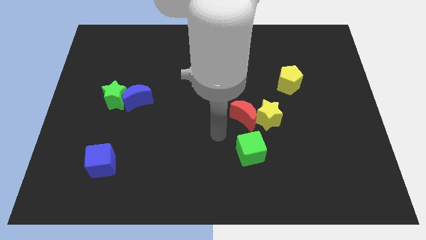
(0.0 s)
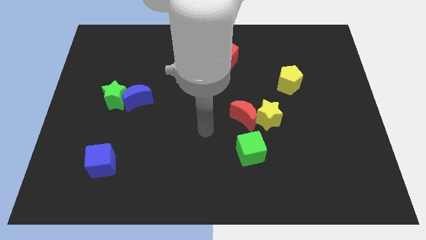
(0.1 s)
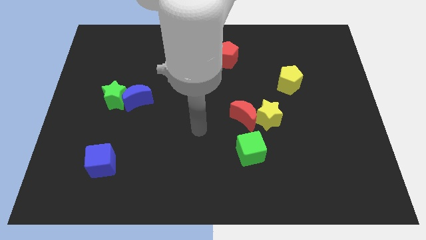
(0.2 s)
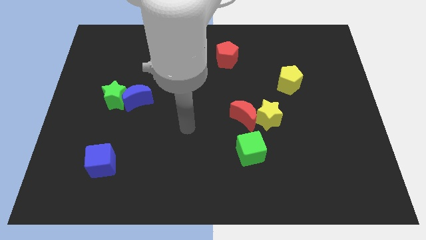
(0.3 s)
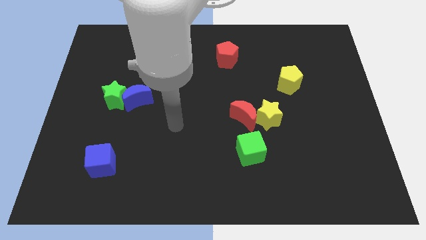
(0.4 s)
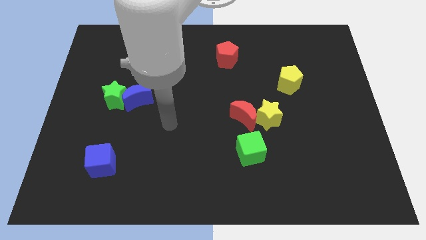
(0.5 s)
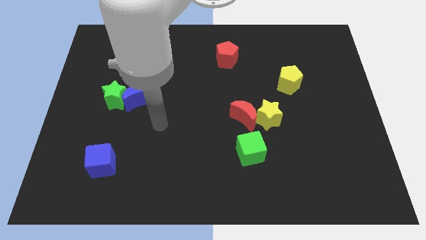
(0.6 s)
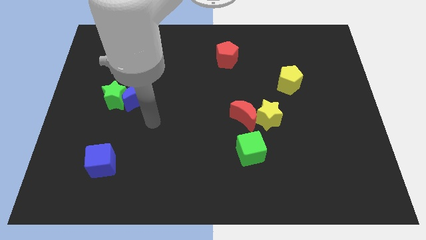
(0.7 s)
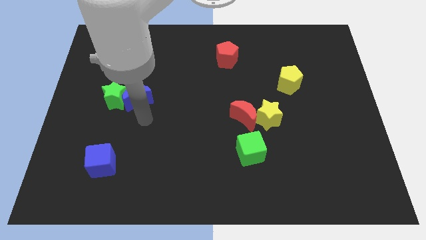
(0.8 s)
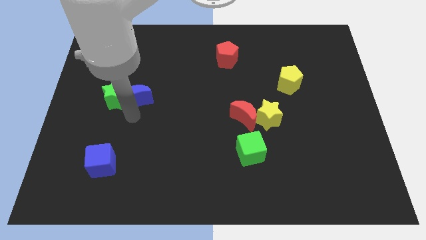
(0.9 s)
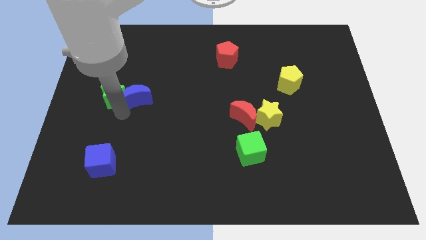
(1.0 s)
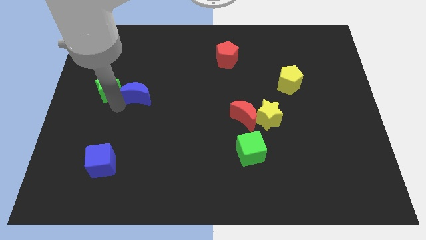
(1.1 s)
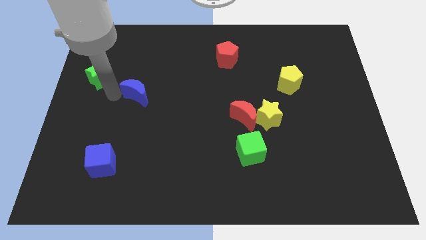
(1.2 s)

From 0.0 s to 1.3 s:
separate the blue moon from the green star

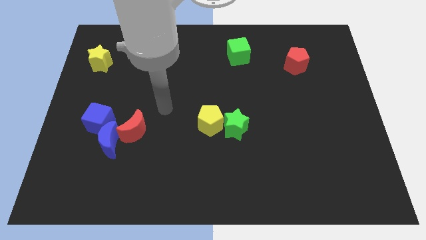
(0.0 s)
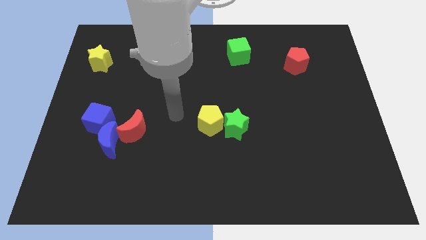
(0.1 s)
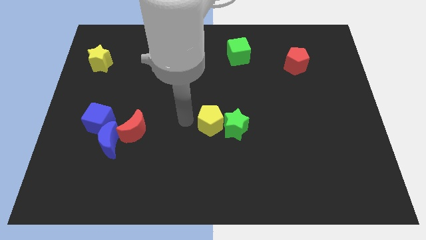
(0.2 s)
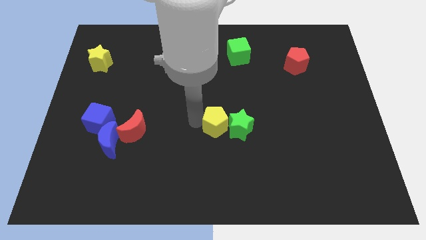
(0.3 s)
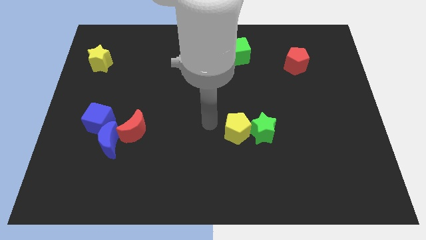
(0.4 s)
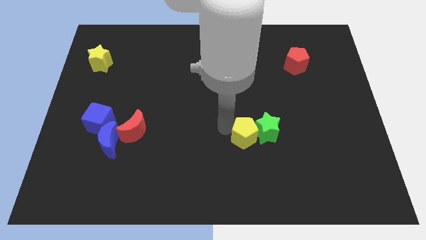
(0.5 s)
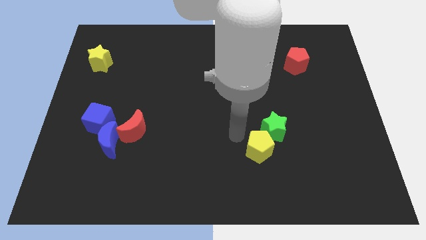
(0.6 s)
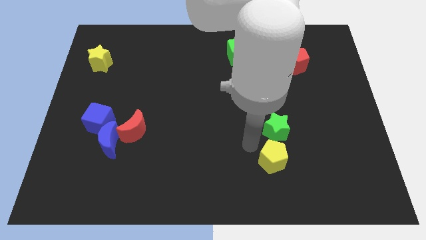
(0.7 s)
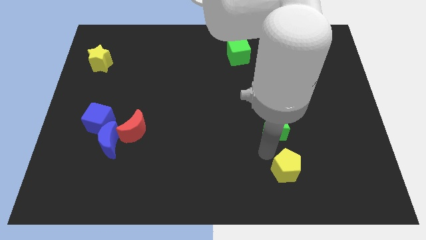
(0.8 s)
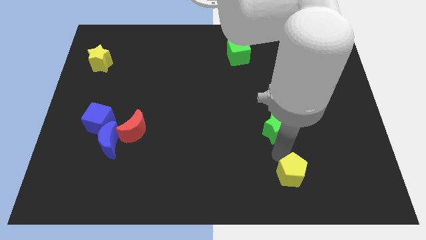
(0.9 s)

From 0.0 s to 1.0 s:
move the green star away from the yellow pentagon

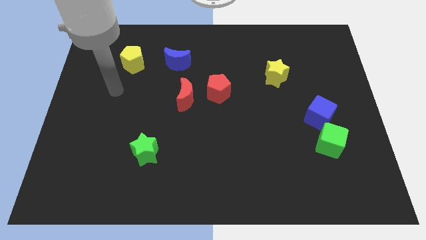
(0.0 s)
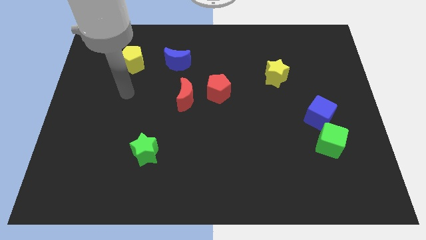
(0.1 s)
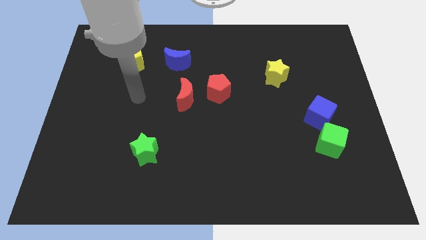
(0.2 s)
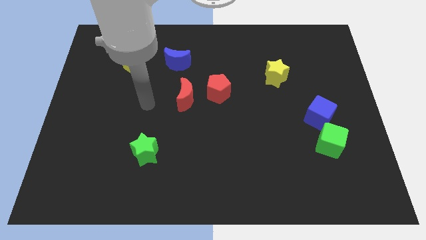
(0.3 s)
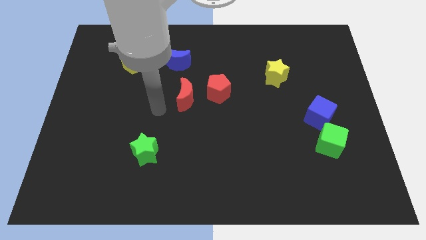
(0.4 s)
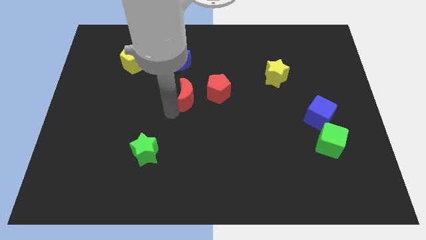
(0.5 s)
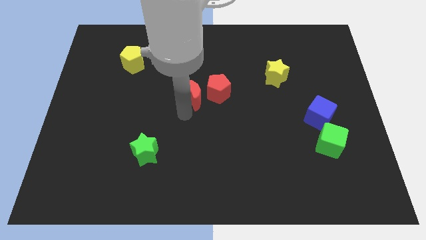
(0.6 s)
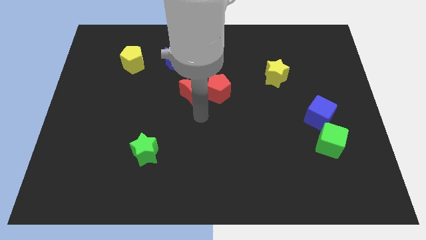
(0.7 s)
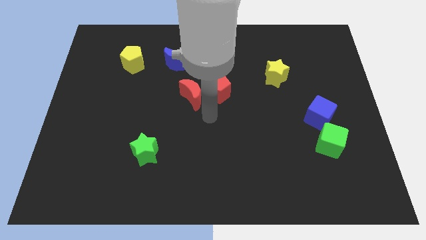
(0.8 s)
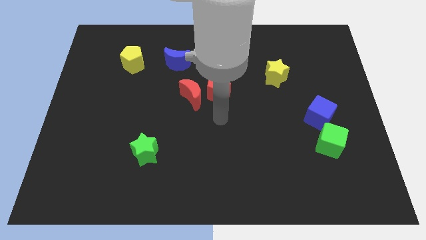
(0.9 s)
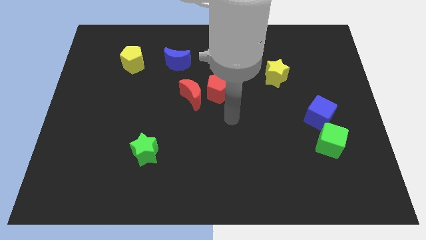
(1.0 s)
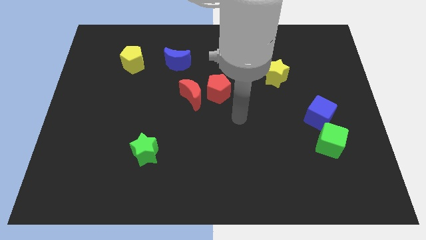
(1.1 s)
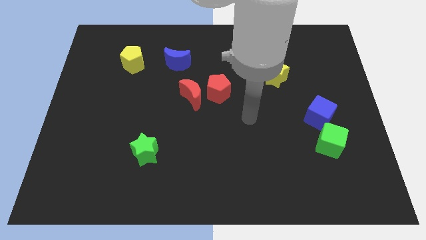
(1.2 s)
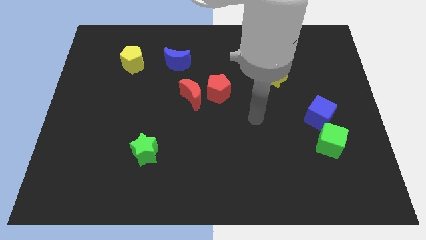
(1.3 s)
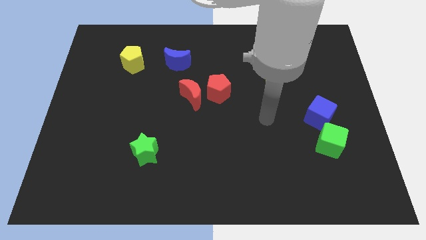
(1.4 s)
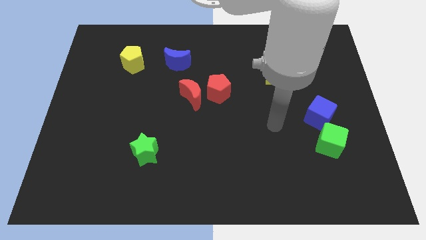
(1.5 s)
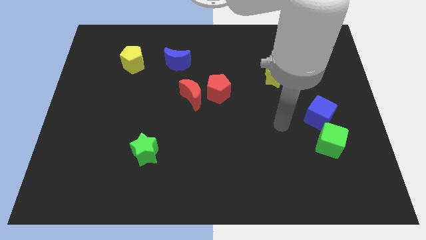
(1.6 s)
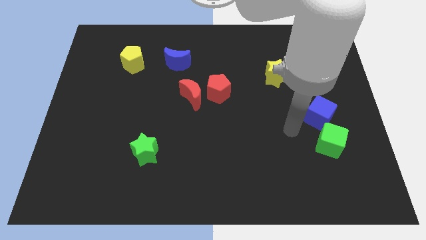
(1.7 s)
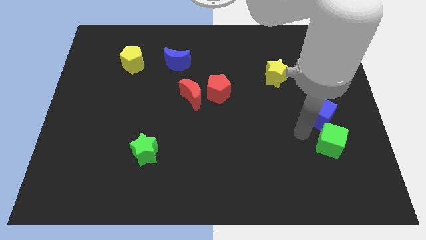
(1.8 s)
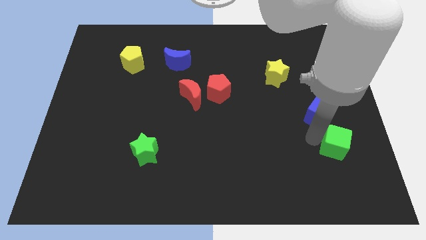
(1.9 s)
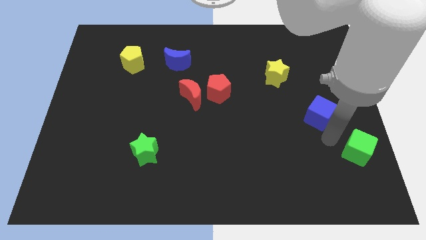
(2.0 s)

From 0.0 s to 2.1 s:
separate the blue cube from the green cube

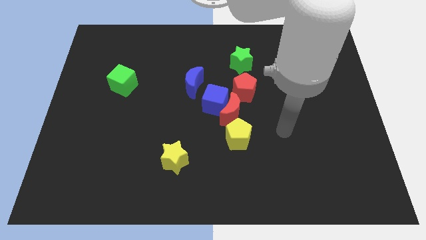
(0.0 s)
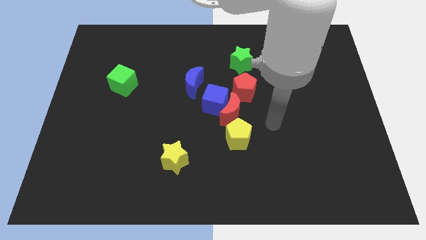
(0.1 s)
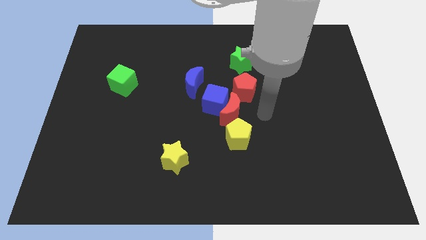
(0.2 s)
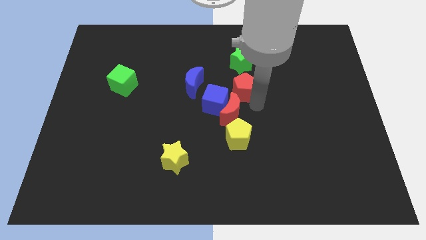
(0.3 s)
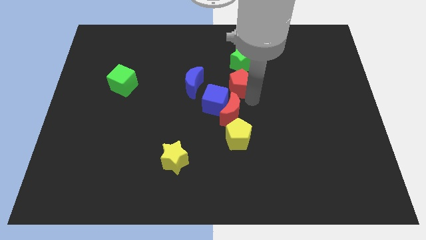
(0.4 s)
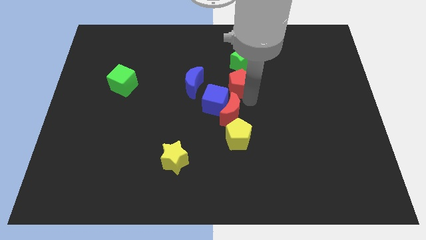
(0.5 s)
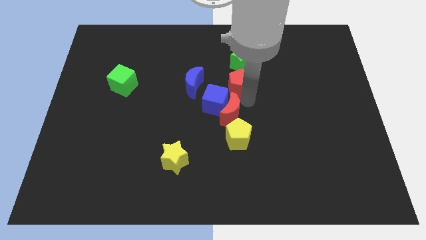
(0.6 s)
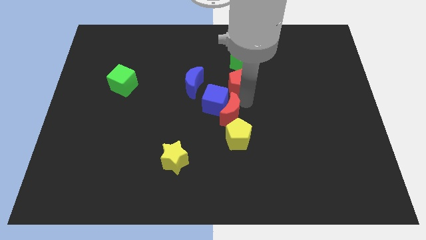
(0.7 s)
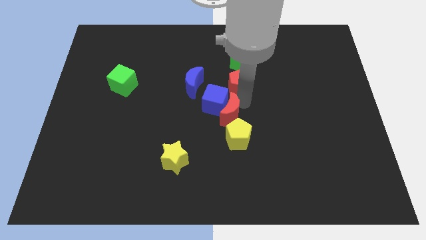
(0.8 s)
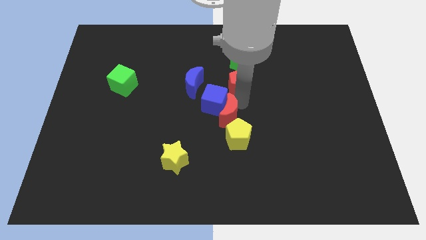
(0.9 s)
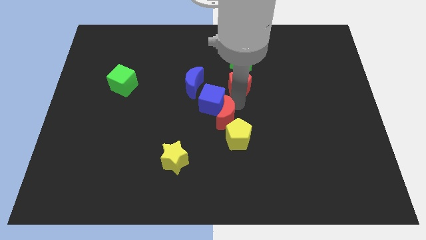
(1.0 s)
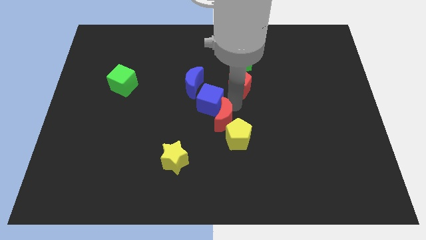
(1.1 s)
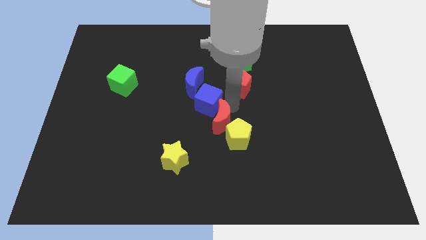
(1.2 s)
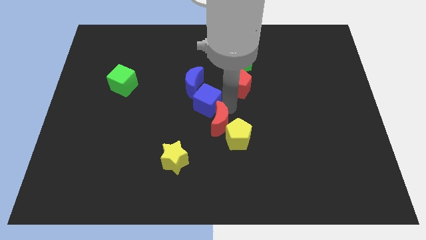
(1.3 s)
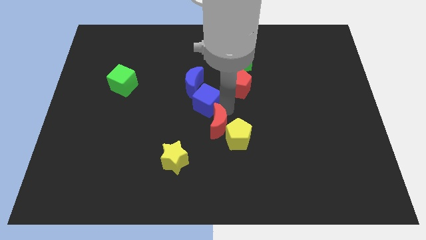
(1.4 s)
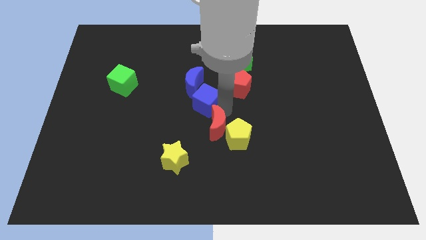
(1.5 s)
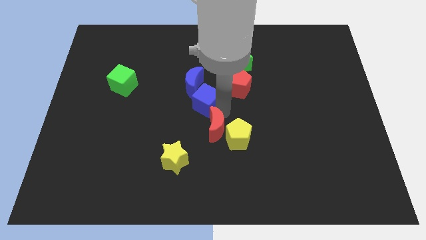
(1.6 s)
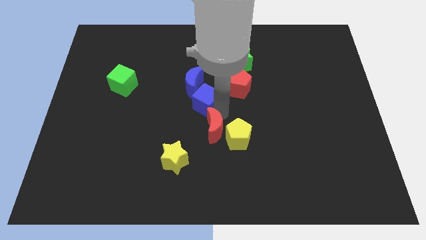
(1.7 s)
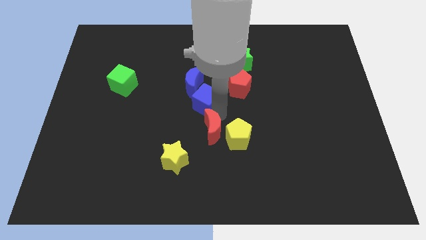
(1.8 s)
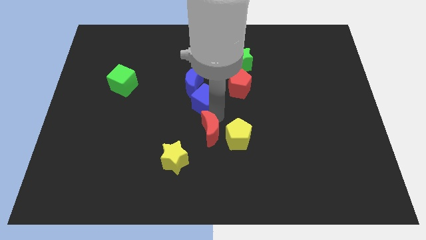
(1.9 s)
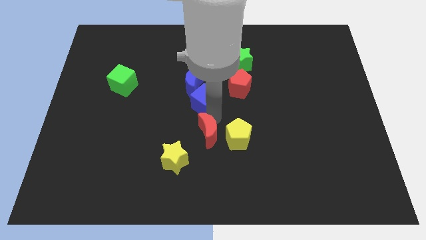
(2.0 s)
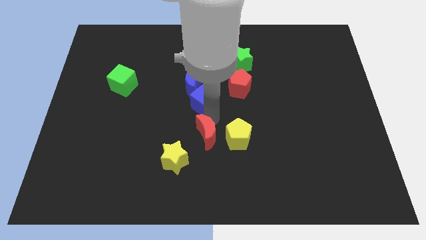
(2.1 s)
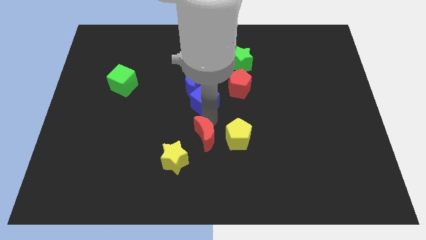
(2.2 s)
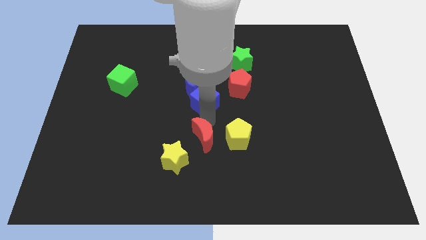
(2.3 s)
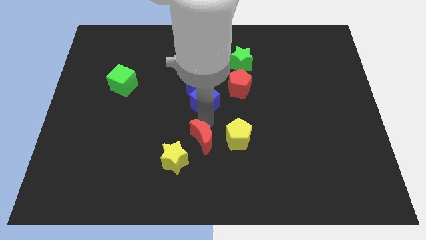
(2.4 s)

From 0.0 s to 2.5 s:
separate the red moon from the blue cube, yellow pentagon, and red pentagon

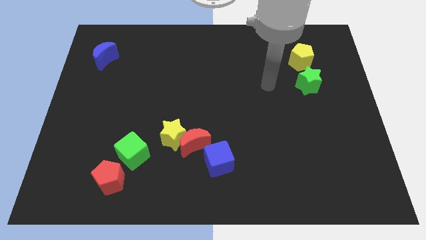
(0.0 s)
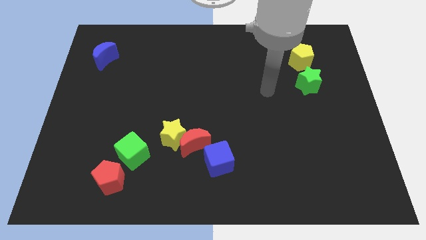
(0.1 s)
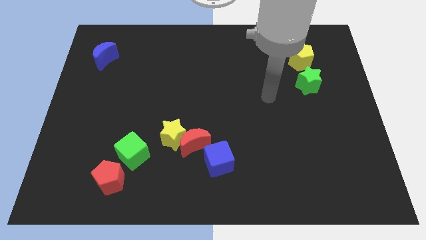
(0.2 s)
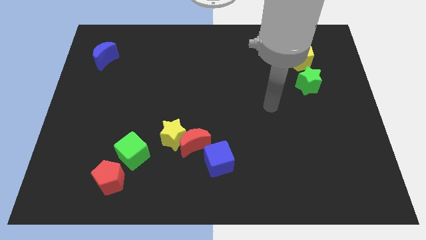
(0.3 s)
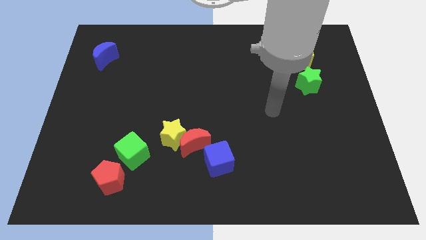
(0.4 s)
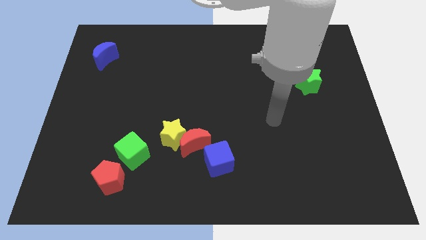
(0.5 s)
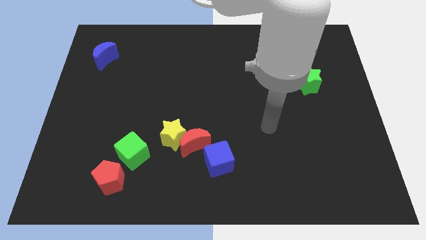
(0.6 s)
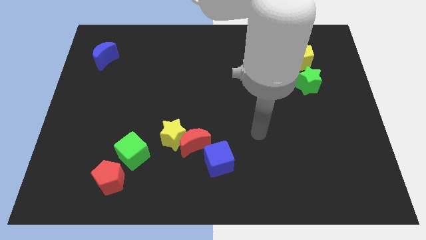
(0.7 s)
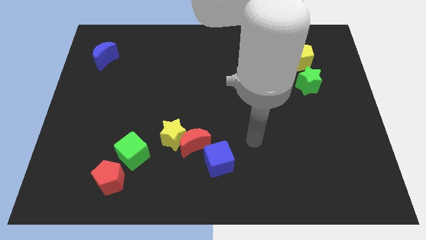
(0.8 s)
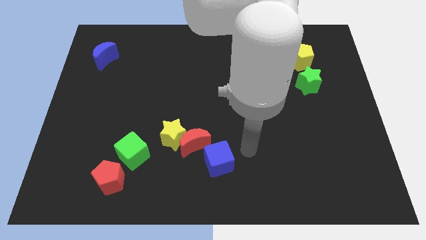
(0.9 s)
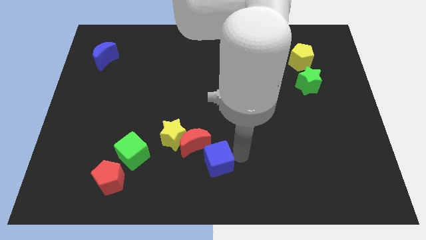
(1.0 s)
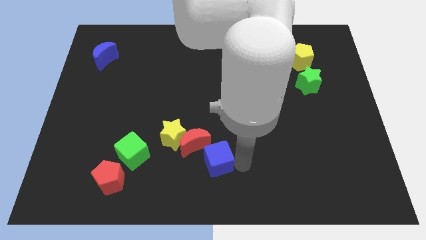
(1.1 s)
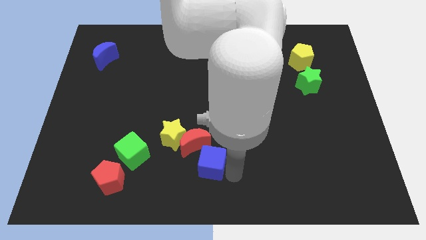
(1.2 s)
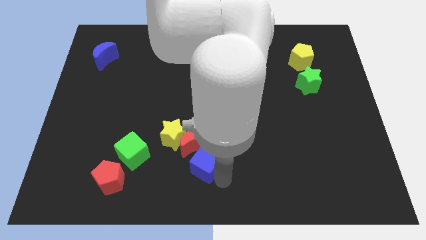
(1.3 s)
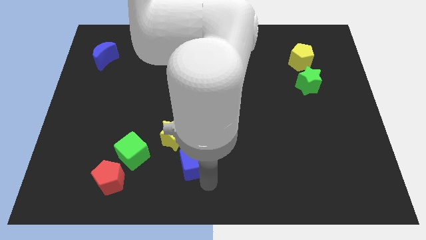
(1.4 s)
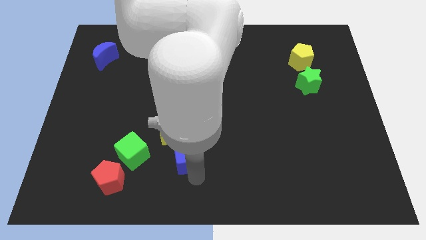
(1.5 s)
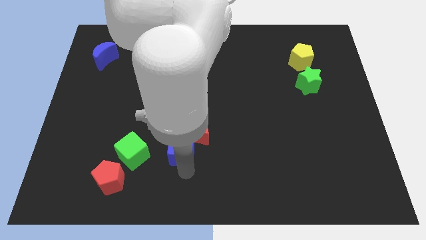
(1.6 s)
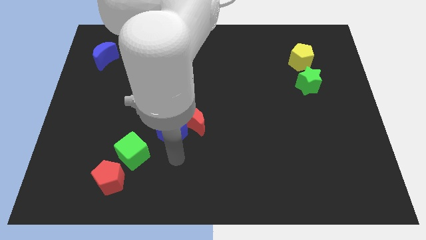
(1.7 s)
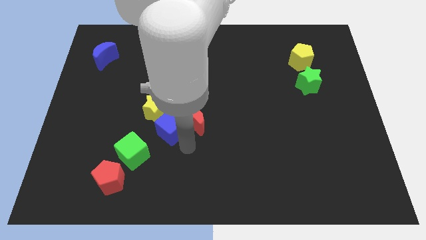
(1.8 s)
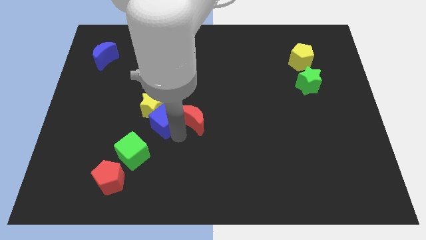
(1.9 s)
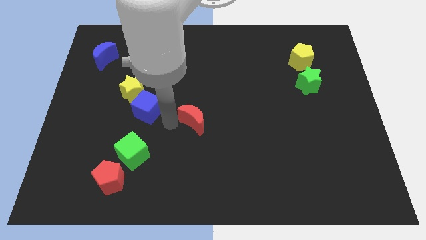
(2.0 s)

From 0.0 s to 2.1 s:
move the red moon away from the yellow star and blue cube

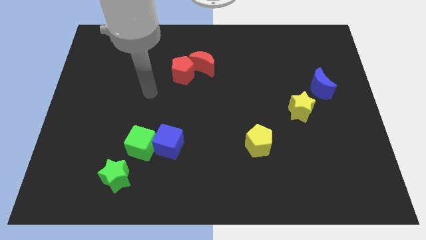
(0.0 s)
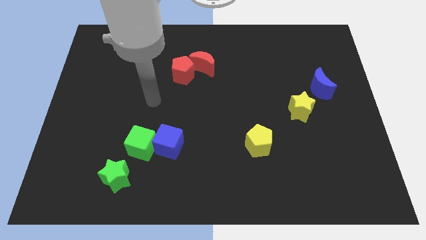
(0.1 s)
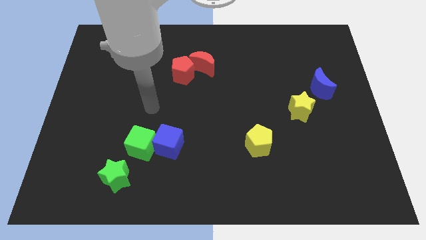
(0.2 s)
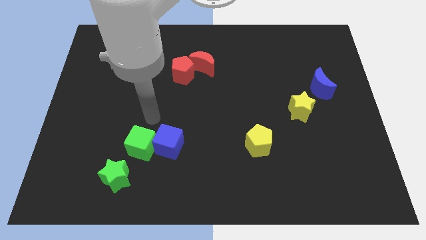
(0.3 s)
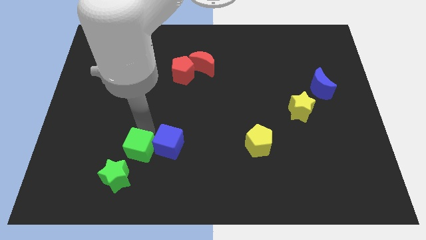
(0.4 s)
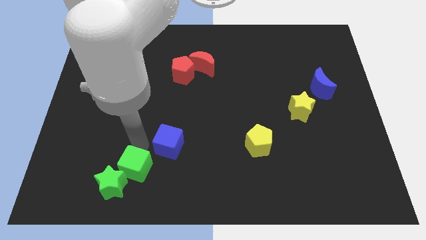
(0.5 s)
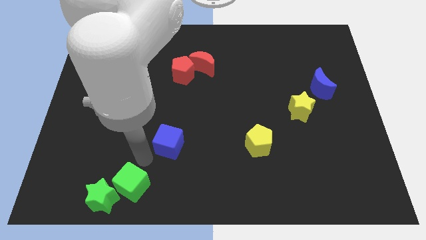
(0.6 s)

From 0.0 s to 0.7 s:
pull the blue cube apart from the green cube
